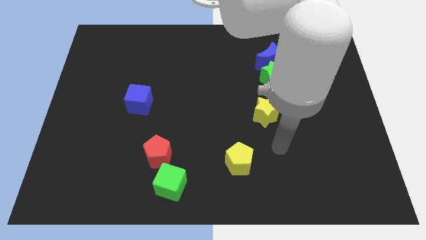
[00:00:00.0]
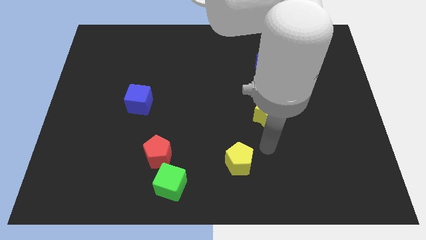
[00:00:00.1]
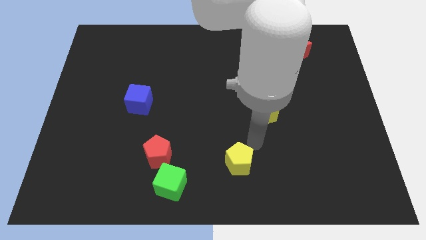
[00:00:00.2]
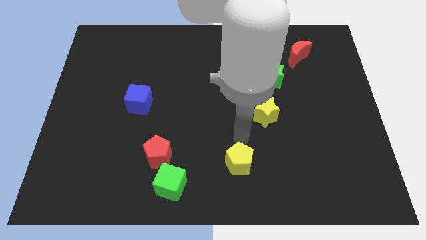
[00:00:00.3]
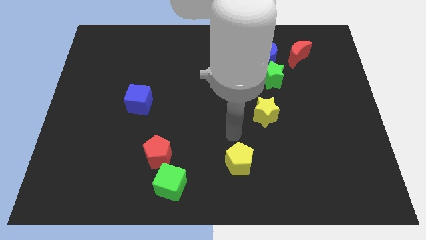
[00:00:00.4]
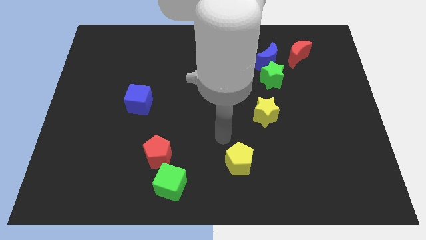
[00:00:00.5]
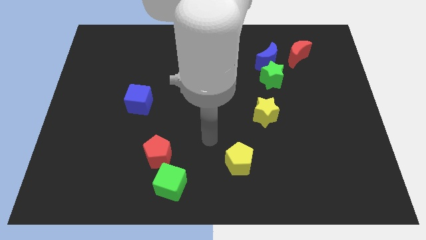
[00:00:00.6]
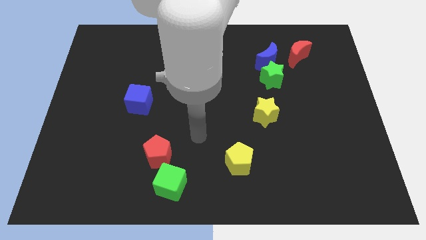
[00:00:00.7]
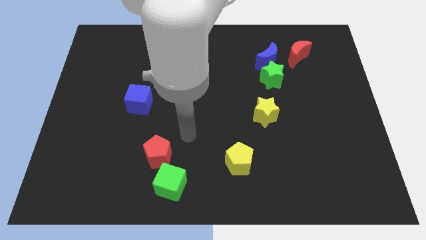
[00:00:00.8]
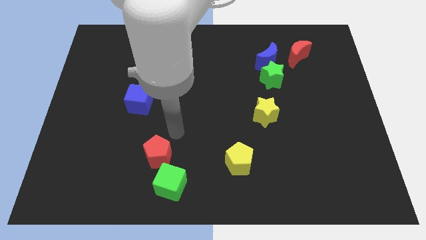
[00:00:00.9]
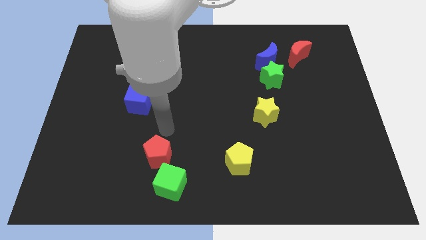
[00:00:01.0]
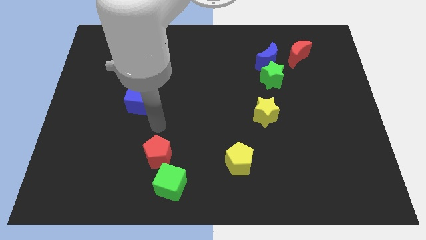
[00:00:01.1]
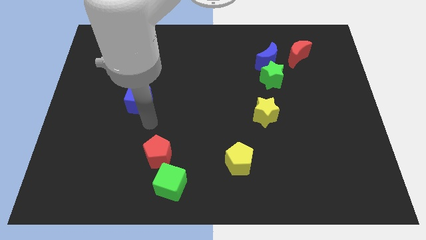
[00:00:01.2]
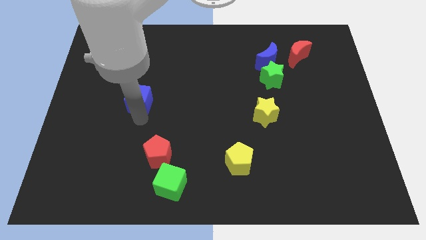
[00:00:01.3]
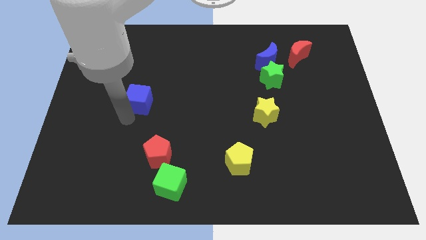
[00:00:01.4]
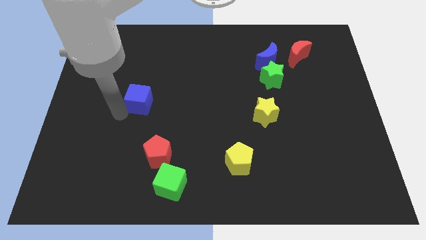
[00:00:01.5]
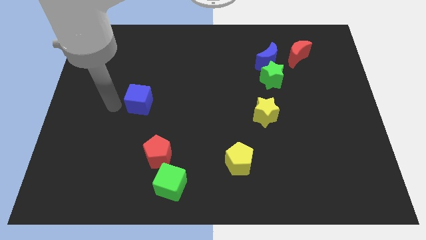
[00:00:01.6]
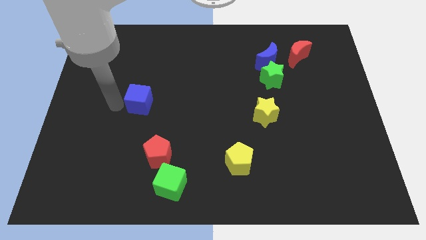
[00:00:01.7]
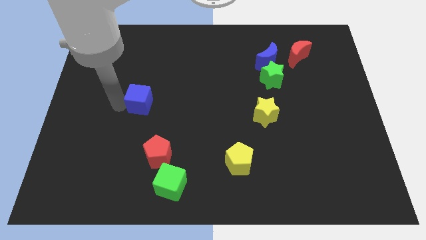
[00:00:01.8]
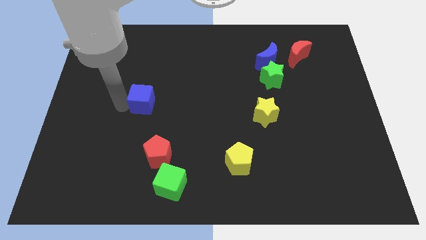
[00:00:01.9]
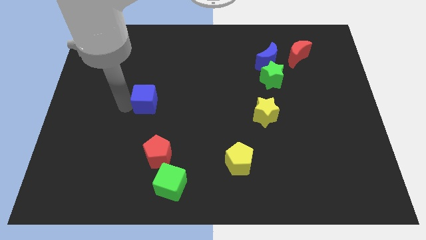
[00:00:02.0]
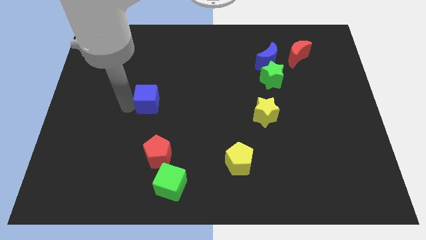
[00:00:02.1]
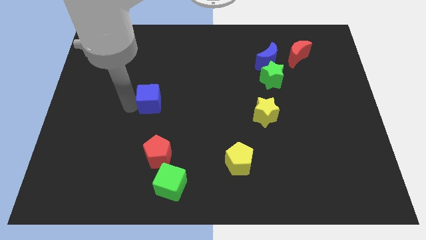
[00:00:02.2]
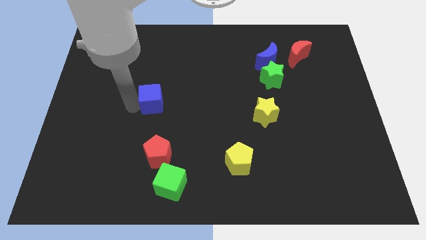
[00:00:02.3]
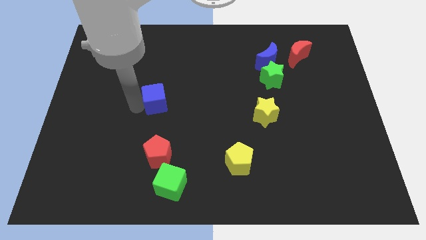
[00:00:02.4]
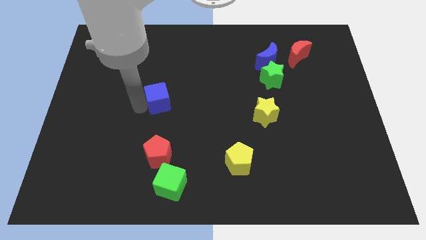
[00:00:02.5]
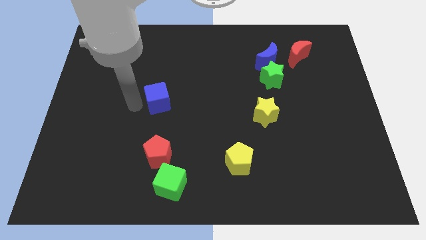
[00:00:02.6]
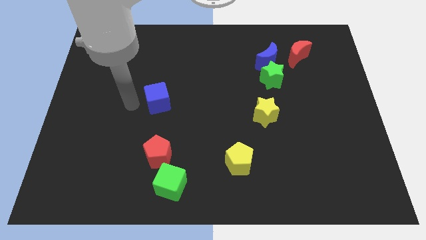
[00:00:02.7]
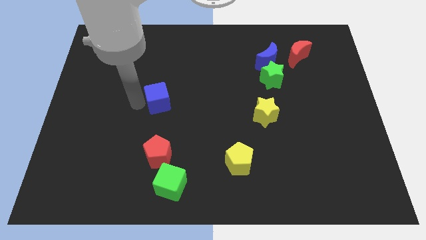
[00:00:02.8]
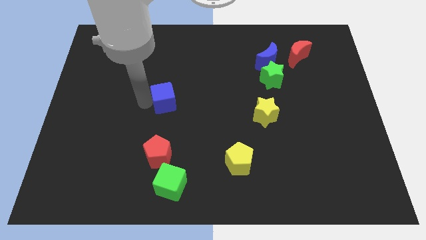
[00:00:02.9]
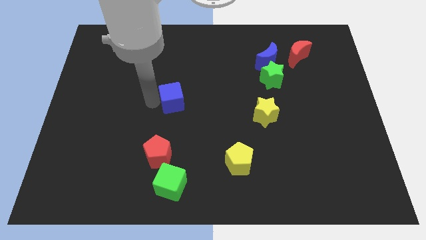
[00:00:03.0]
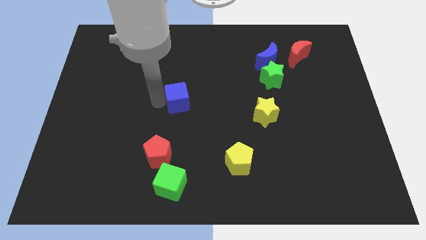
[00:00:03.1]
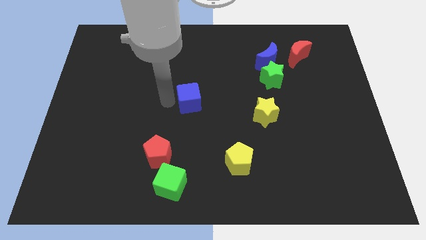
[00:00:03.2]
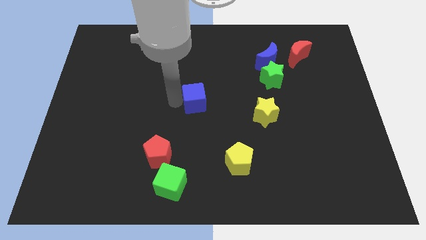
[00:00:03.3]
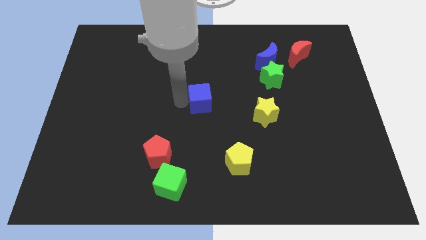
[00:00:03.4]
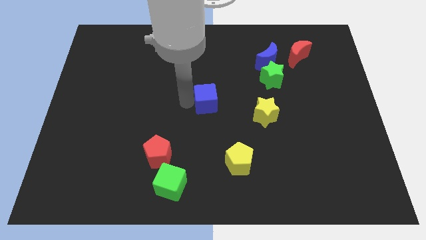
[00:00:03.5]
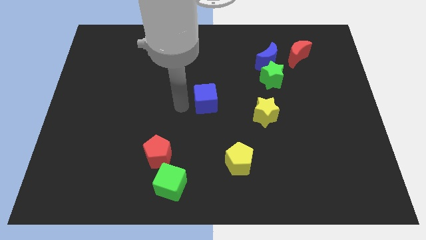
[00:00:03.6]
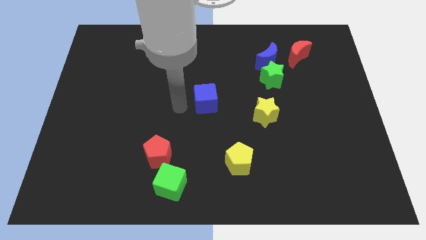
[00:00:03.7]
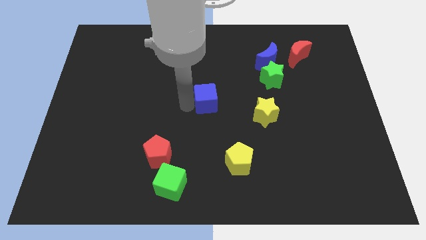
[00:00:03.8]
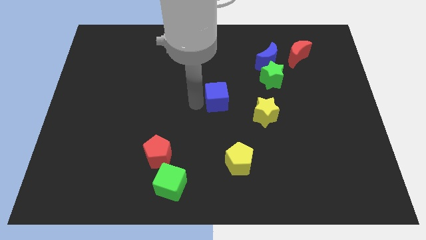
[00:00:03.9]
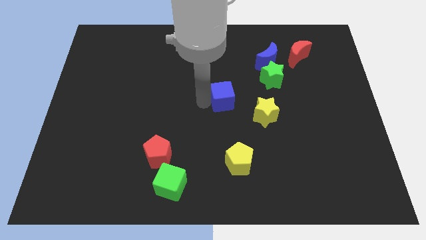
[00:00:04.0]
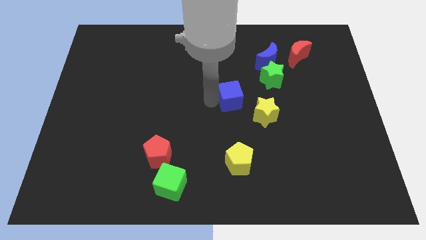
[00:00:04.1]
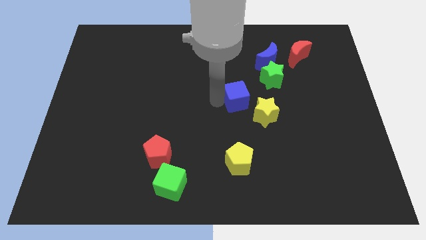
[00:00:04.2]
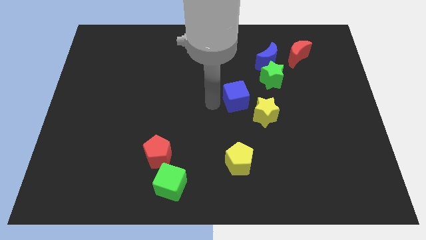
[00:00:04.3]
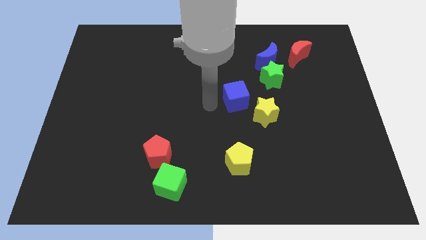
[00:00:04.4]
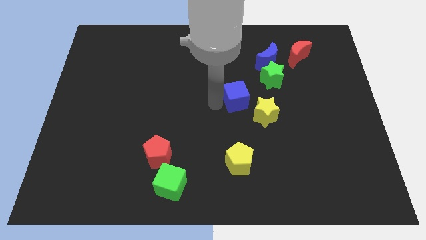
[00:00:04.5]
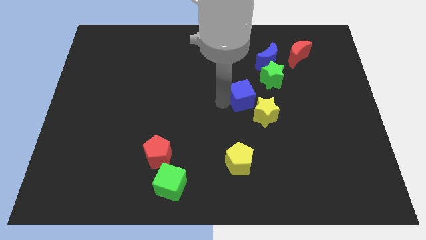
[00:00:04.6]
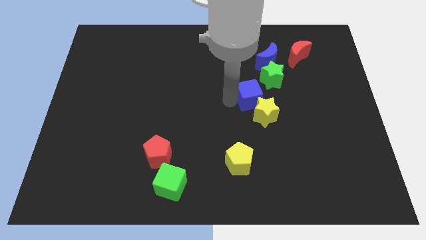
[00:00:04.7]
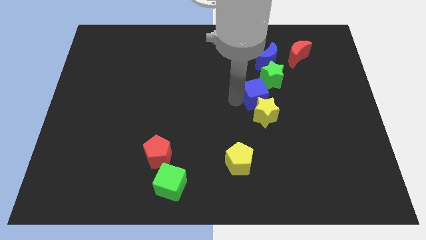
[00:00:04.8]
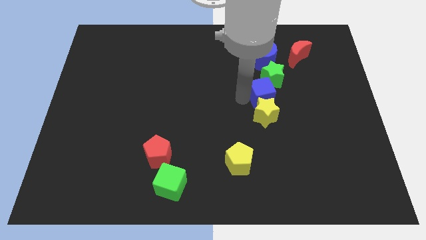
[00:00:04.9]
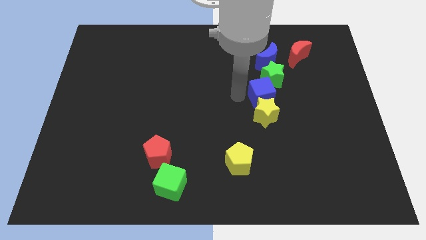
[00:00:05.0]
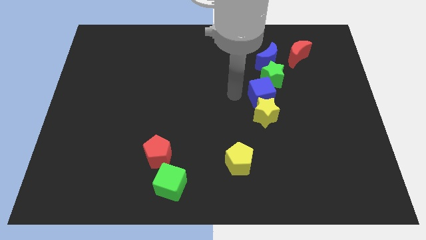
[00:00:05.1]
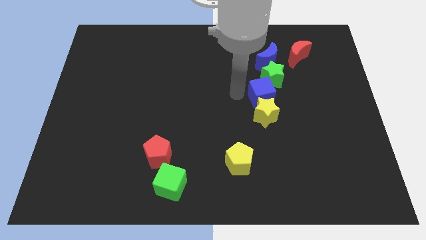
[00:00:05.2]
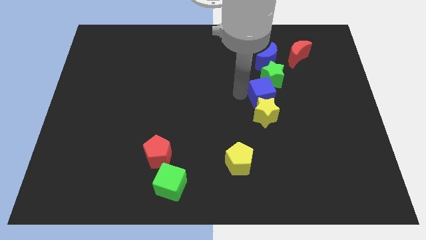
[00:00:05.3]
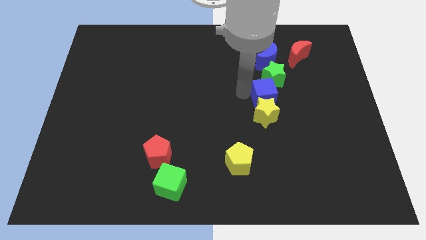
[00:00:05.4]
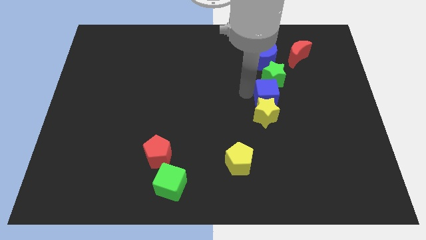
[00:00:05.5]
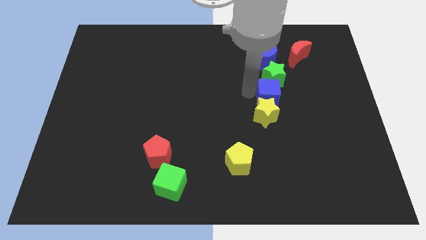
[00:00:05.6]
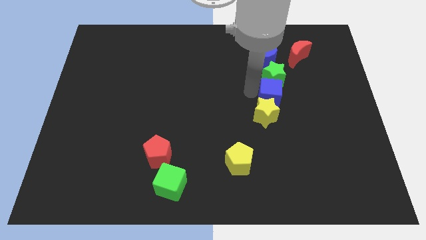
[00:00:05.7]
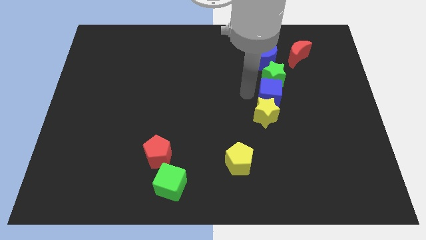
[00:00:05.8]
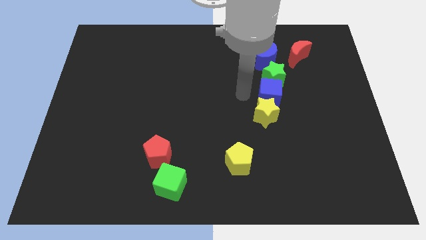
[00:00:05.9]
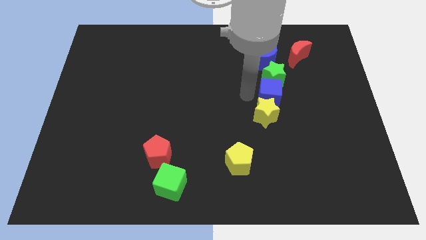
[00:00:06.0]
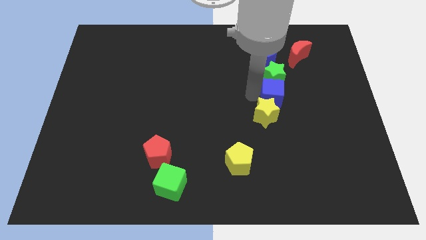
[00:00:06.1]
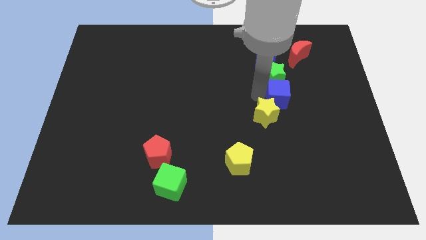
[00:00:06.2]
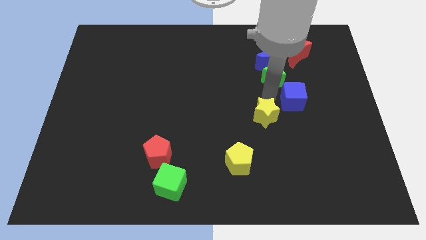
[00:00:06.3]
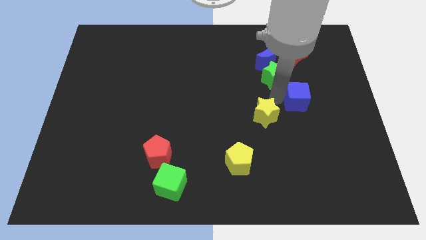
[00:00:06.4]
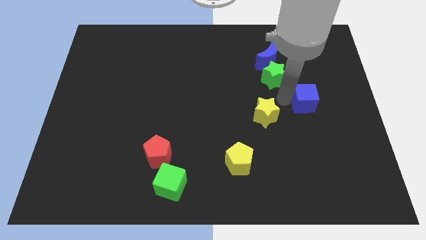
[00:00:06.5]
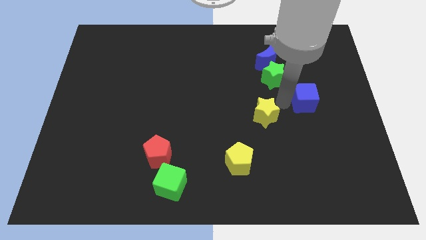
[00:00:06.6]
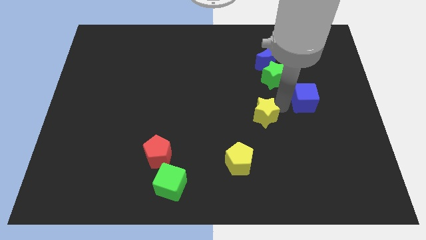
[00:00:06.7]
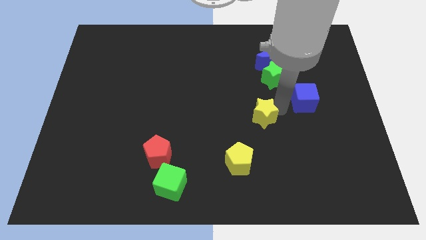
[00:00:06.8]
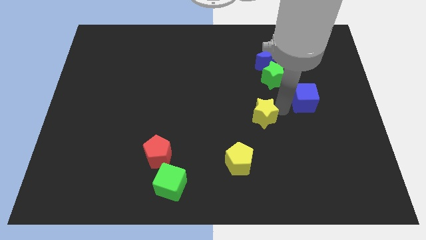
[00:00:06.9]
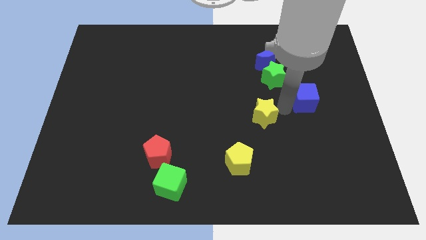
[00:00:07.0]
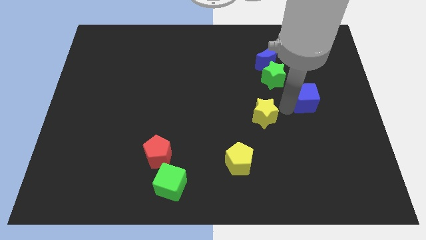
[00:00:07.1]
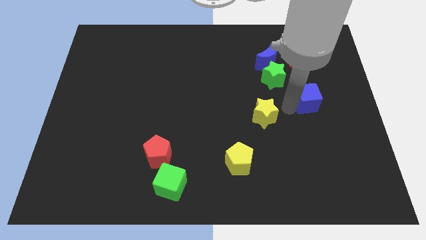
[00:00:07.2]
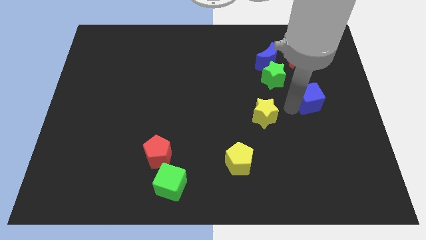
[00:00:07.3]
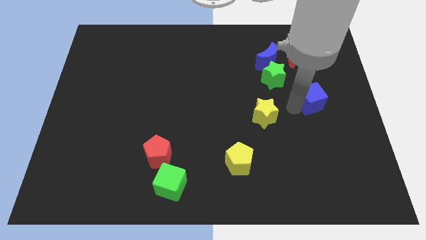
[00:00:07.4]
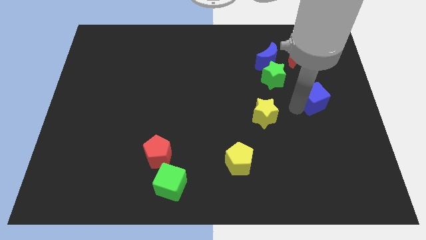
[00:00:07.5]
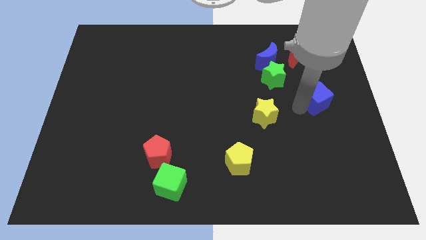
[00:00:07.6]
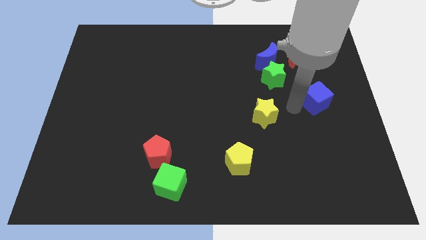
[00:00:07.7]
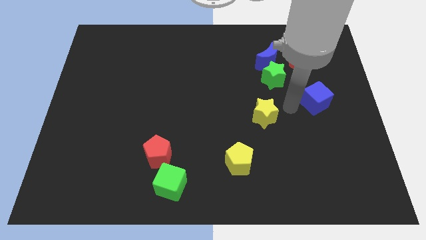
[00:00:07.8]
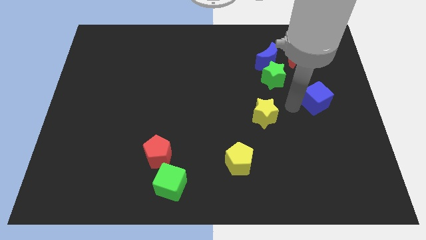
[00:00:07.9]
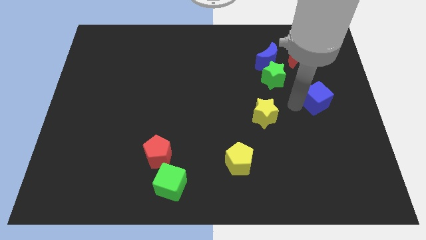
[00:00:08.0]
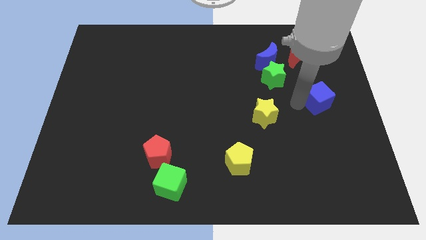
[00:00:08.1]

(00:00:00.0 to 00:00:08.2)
move the blue cube to the center right
